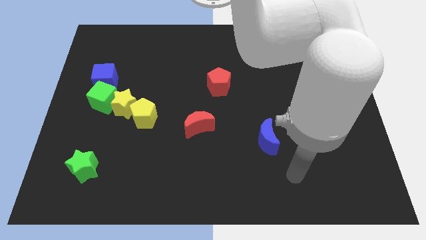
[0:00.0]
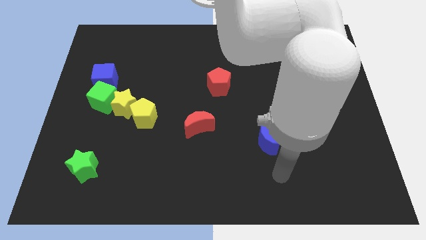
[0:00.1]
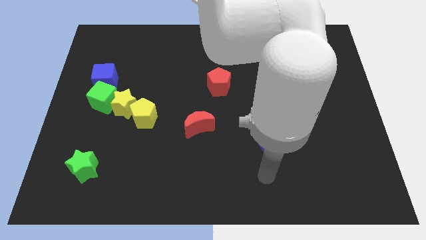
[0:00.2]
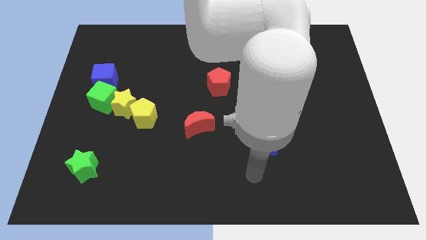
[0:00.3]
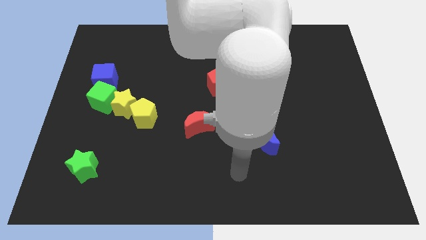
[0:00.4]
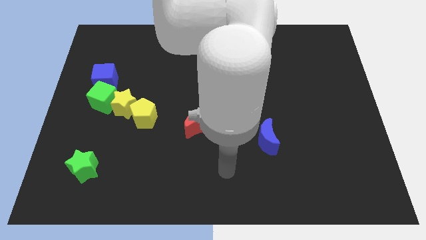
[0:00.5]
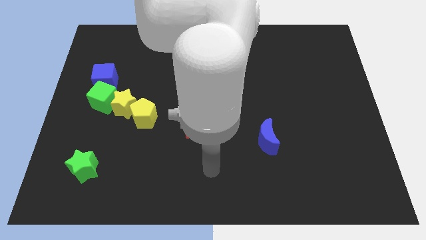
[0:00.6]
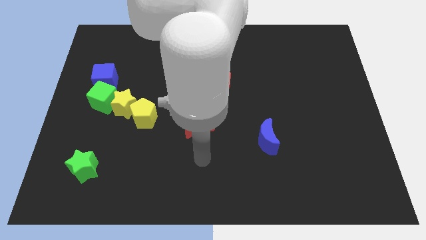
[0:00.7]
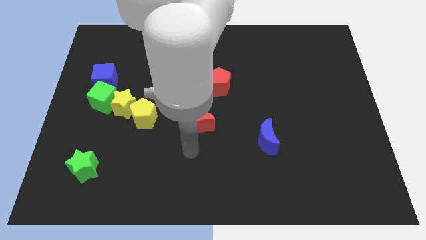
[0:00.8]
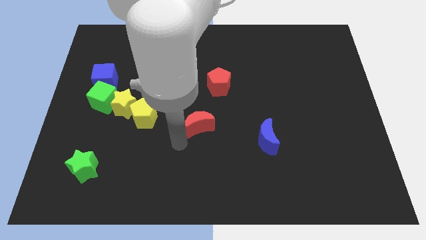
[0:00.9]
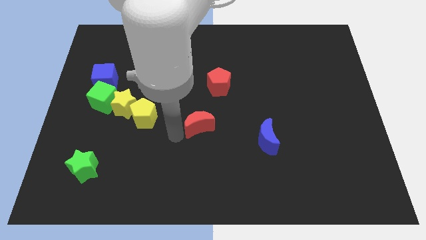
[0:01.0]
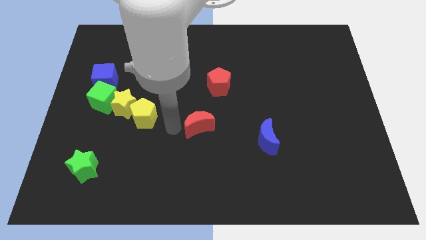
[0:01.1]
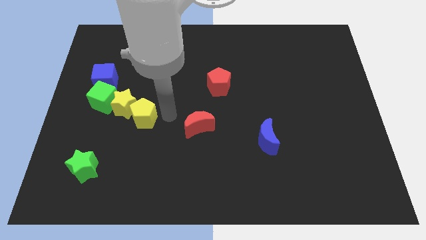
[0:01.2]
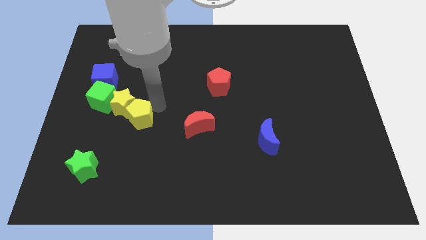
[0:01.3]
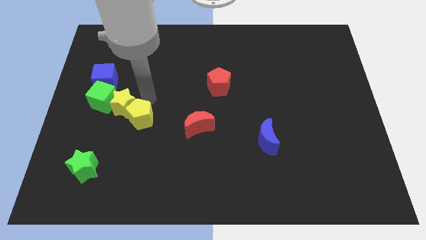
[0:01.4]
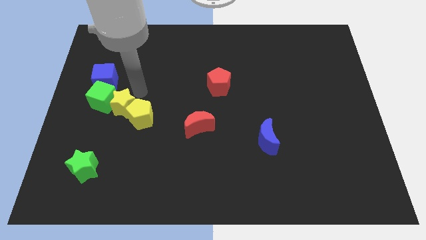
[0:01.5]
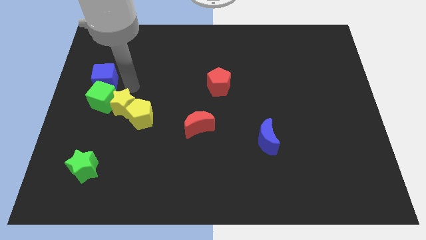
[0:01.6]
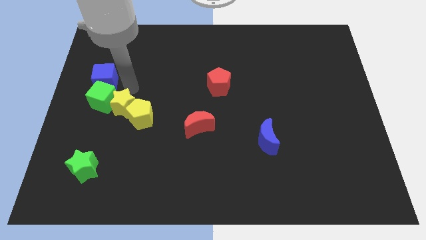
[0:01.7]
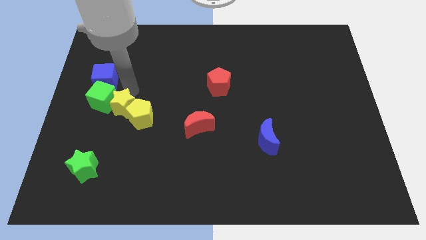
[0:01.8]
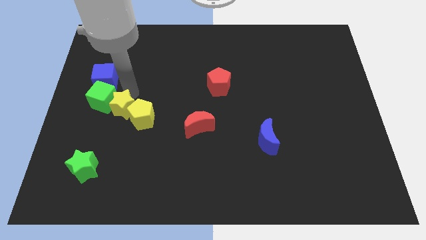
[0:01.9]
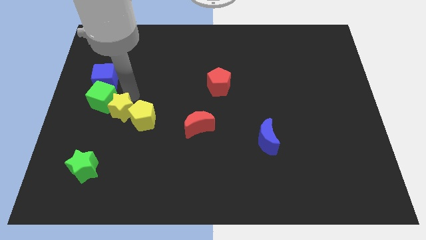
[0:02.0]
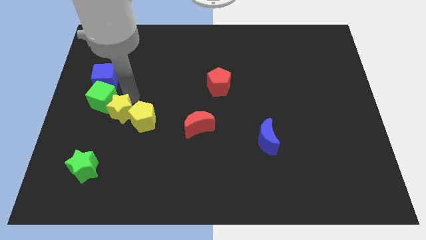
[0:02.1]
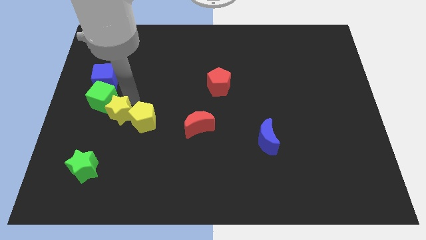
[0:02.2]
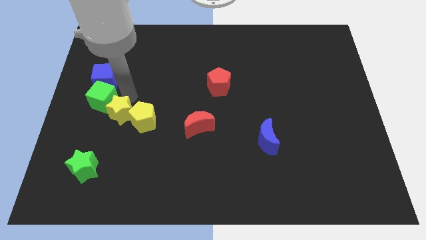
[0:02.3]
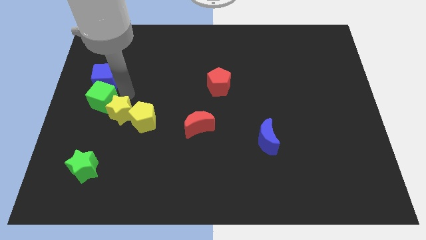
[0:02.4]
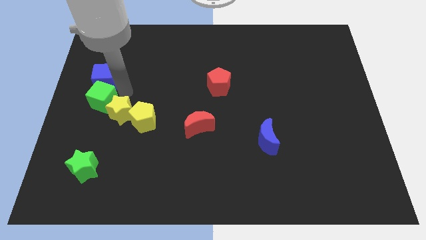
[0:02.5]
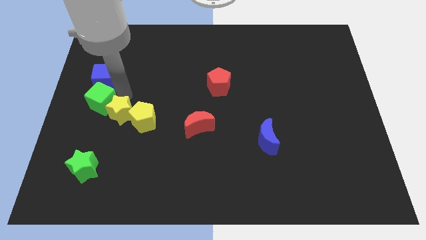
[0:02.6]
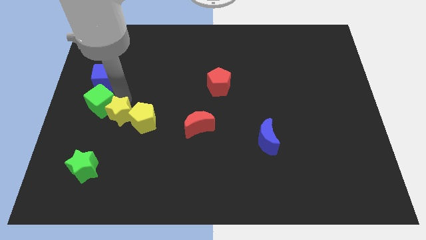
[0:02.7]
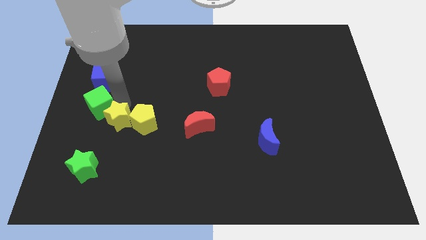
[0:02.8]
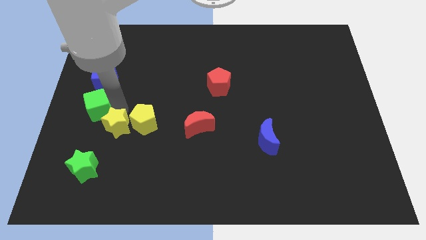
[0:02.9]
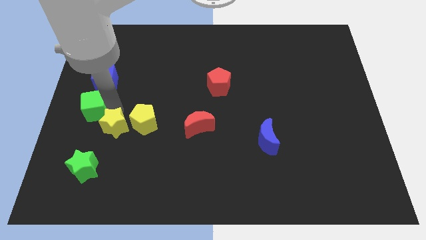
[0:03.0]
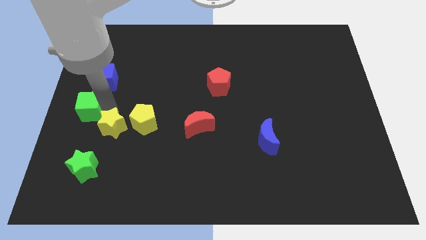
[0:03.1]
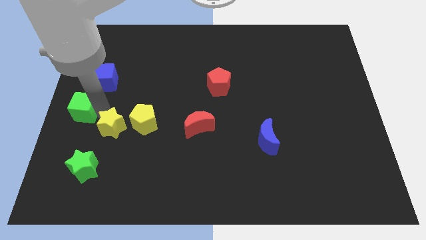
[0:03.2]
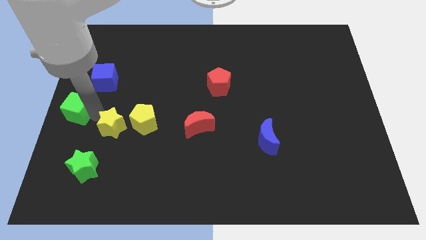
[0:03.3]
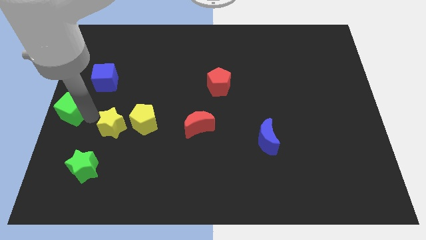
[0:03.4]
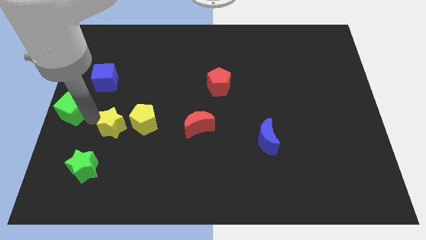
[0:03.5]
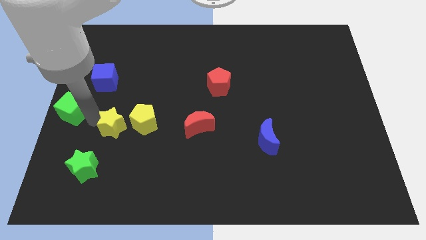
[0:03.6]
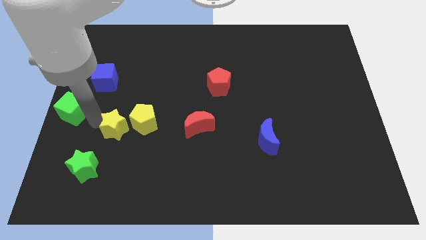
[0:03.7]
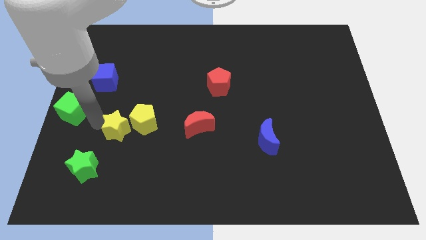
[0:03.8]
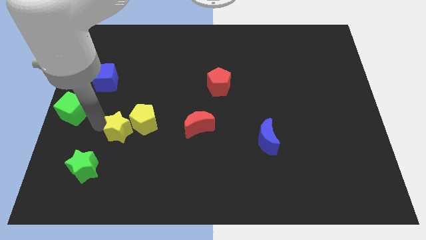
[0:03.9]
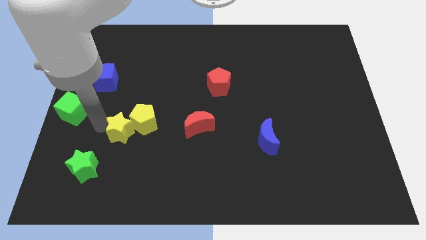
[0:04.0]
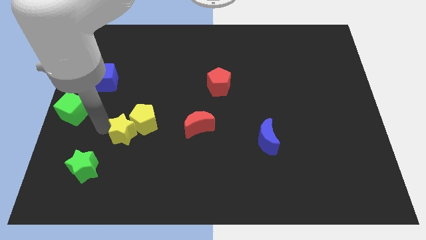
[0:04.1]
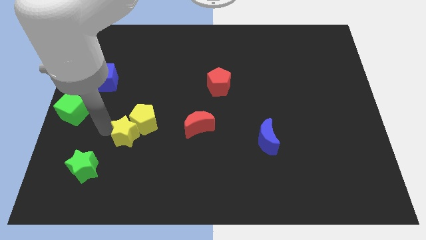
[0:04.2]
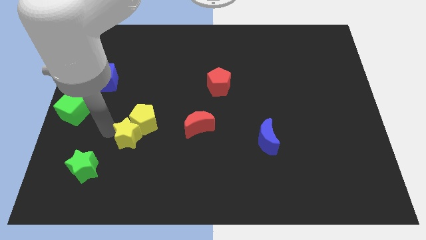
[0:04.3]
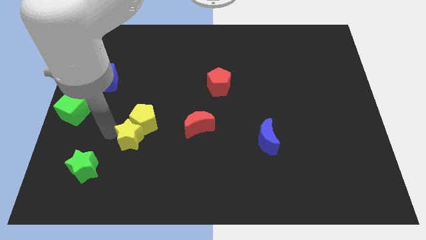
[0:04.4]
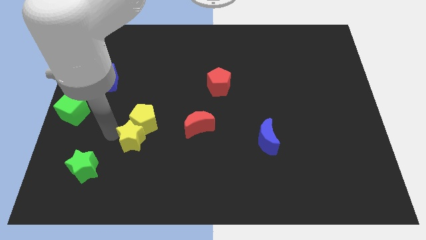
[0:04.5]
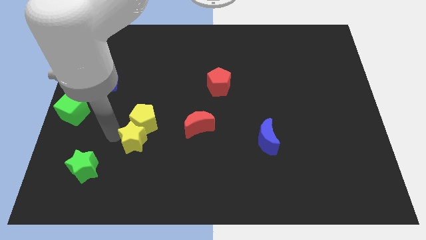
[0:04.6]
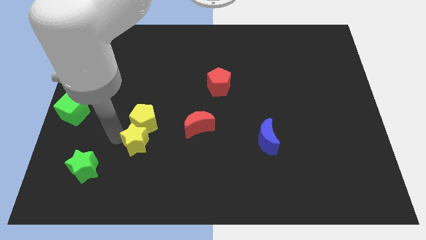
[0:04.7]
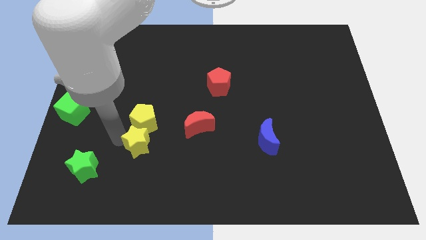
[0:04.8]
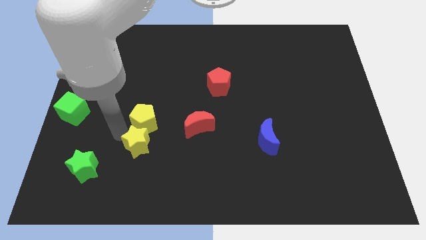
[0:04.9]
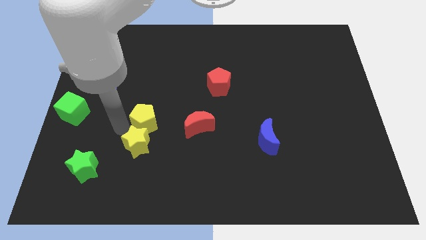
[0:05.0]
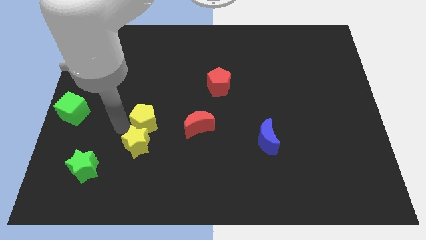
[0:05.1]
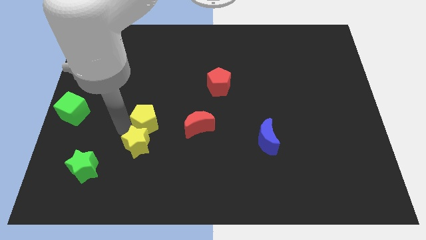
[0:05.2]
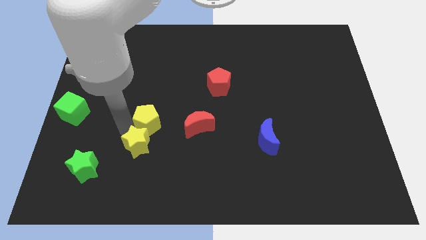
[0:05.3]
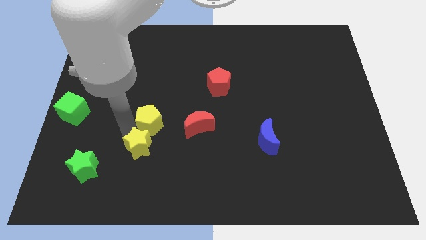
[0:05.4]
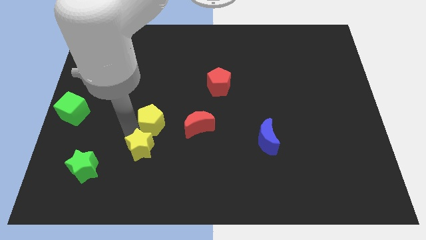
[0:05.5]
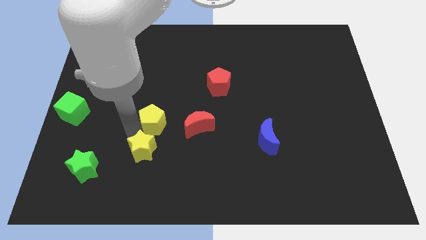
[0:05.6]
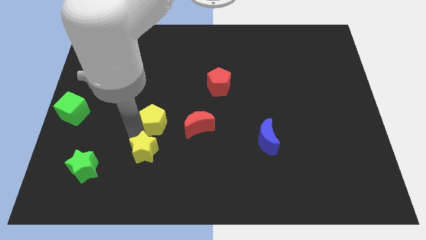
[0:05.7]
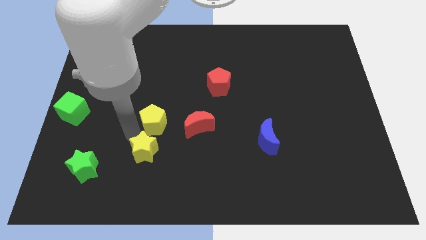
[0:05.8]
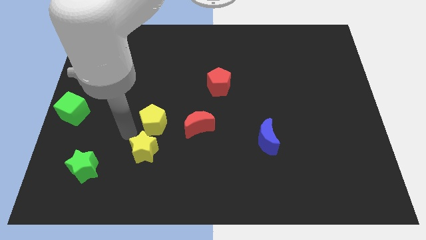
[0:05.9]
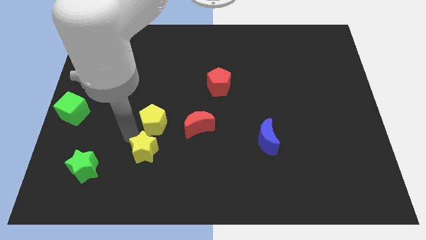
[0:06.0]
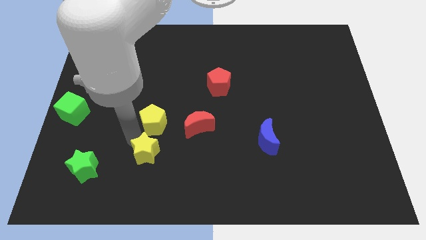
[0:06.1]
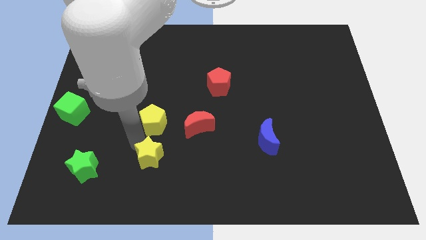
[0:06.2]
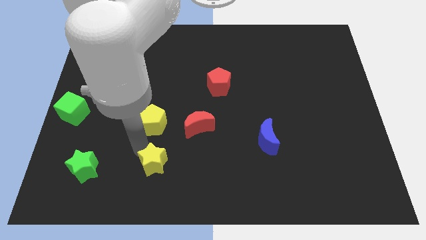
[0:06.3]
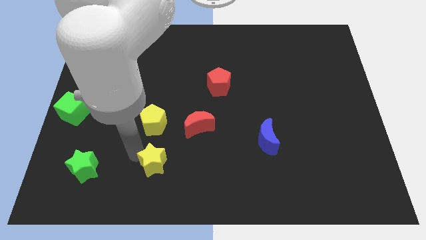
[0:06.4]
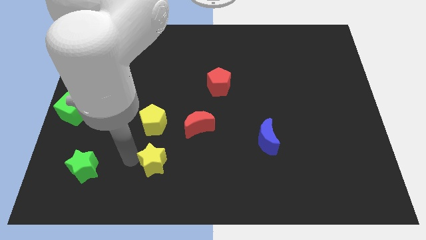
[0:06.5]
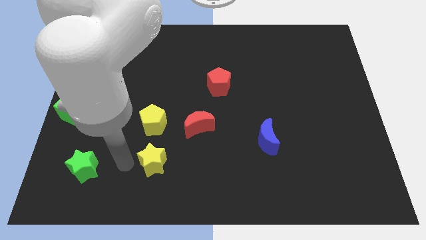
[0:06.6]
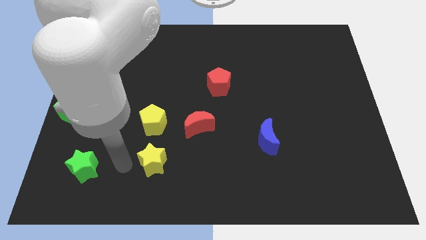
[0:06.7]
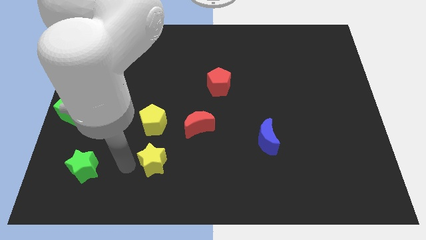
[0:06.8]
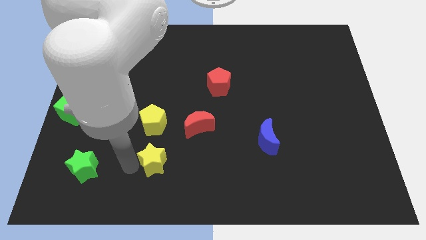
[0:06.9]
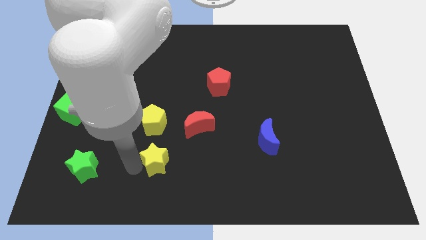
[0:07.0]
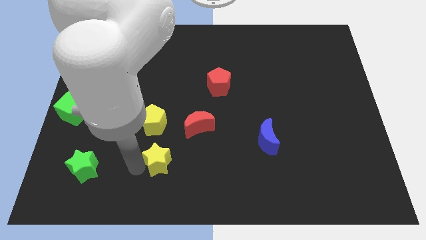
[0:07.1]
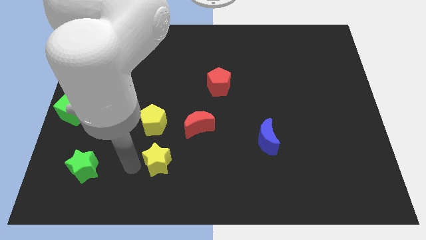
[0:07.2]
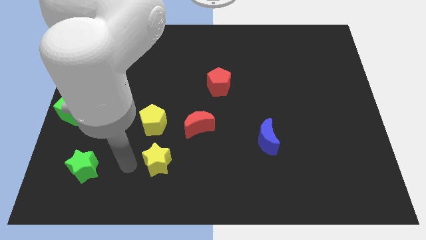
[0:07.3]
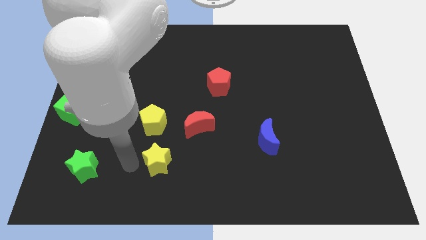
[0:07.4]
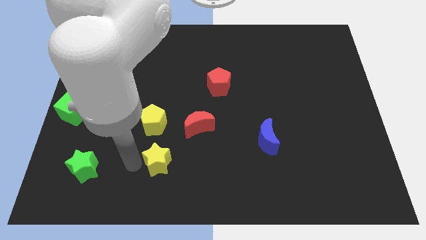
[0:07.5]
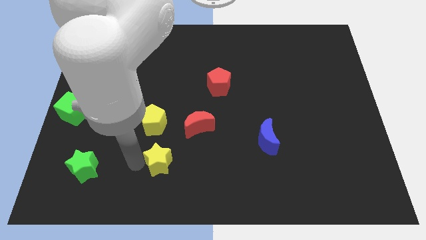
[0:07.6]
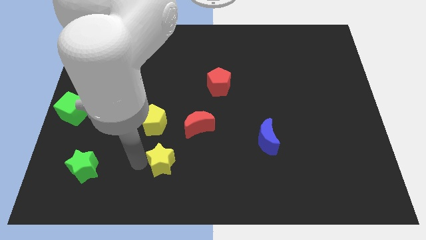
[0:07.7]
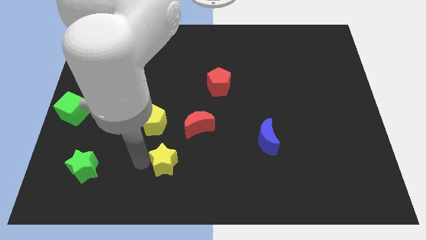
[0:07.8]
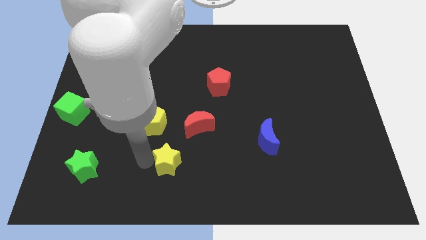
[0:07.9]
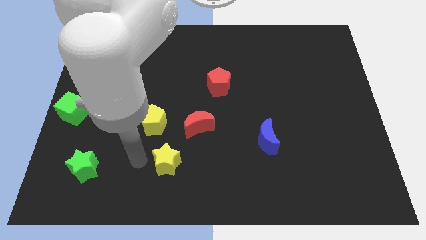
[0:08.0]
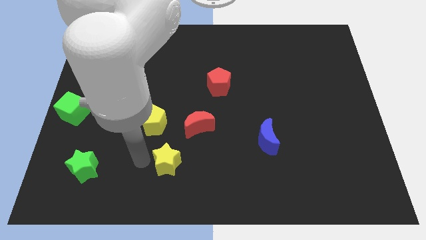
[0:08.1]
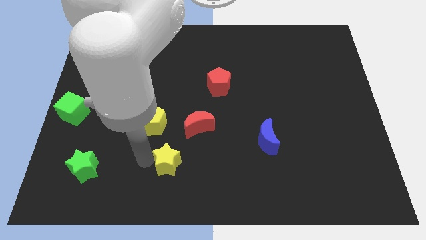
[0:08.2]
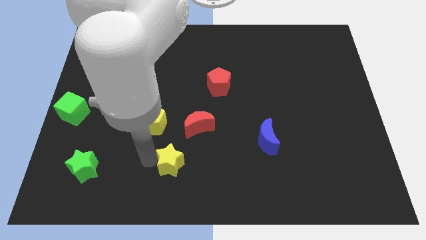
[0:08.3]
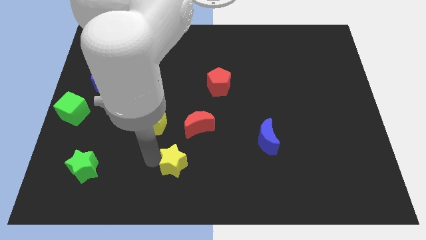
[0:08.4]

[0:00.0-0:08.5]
move the yellow star to the bottom of the red moon
